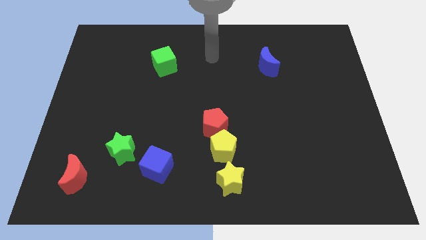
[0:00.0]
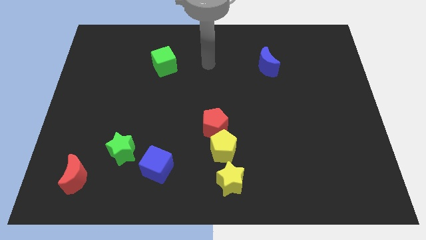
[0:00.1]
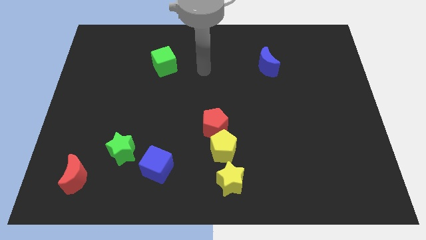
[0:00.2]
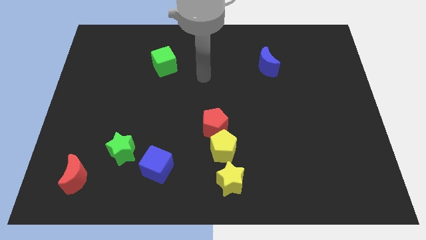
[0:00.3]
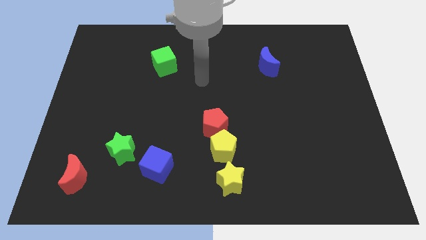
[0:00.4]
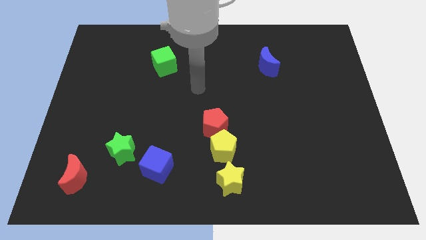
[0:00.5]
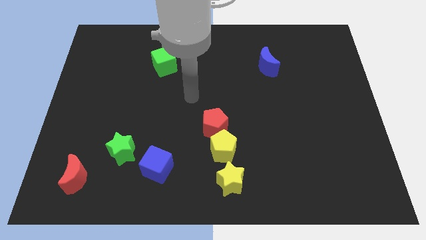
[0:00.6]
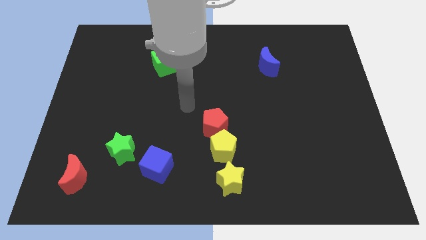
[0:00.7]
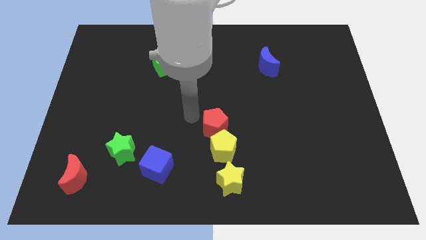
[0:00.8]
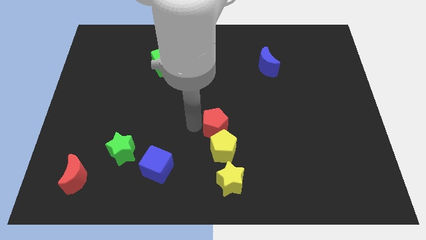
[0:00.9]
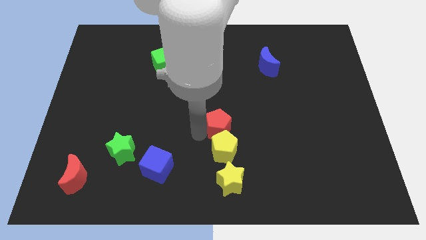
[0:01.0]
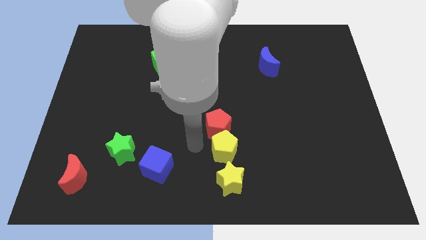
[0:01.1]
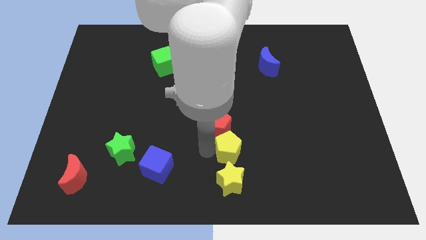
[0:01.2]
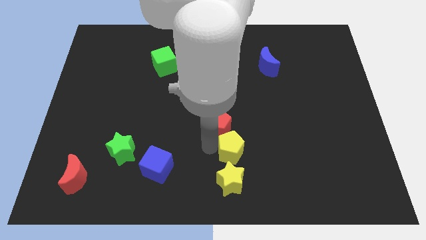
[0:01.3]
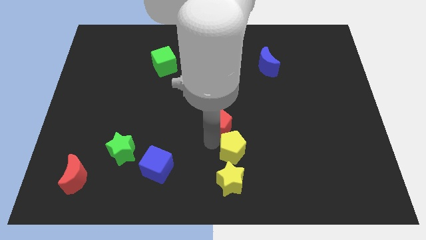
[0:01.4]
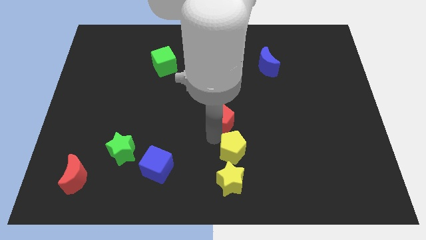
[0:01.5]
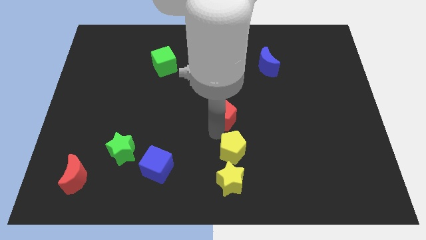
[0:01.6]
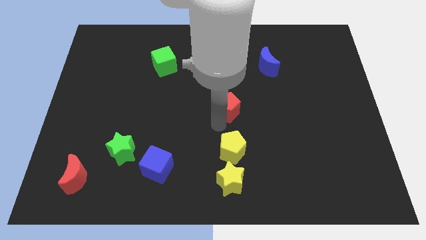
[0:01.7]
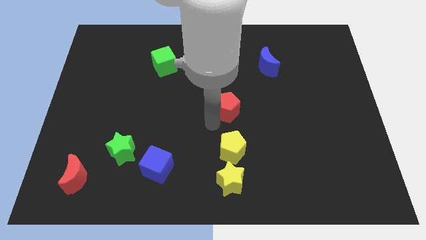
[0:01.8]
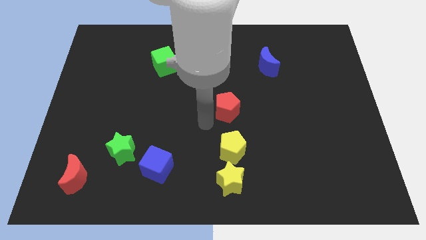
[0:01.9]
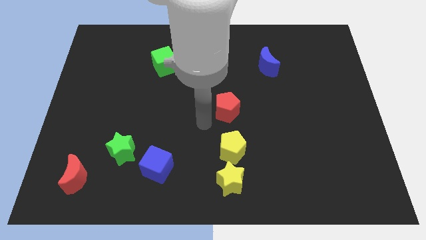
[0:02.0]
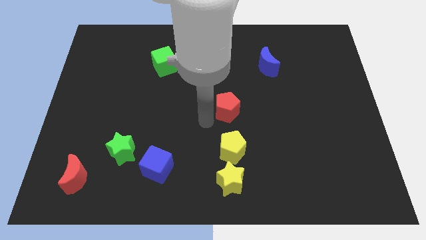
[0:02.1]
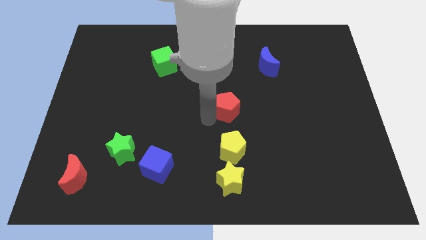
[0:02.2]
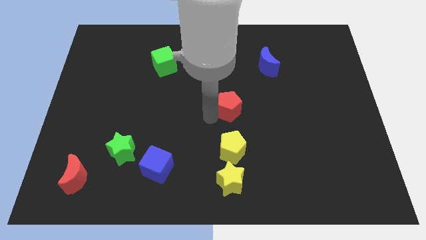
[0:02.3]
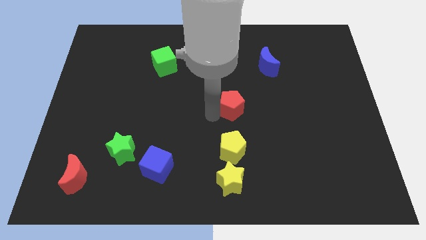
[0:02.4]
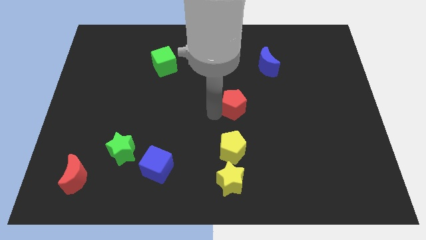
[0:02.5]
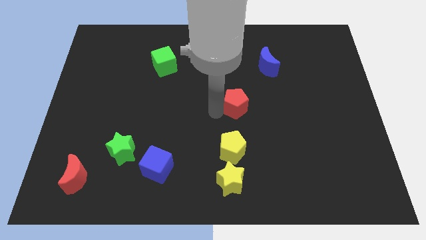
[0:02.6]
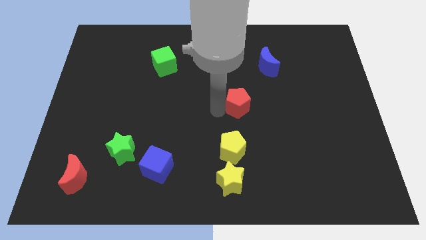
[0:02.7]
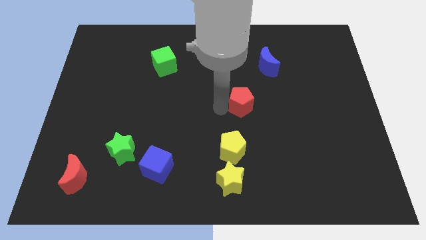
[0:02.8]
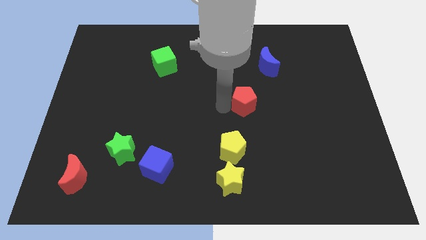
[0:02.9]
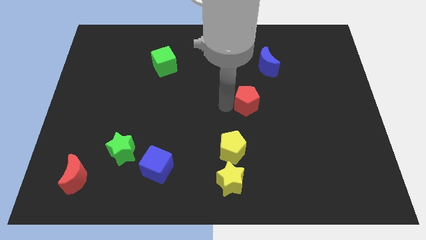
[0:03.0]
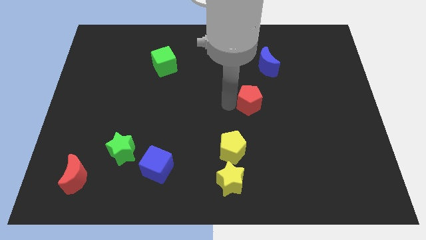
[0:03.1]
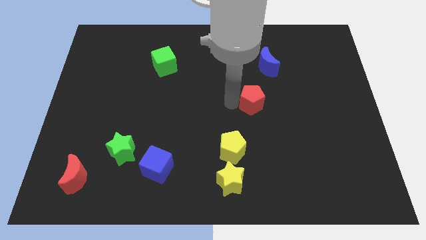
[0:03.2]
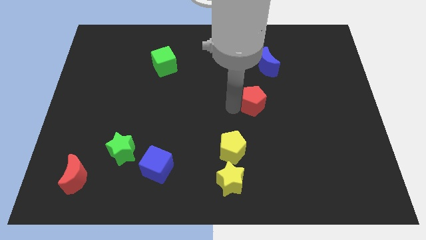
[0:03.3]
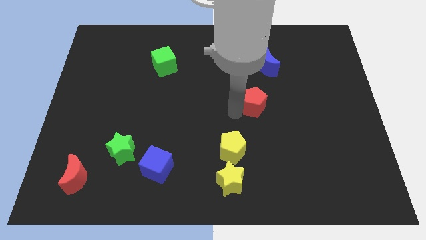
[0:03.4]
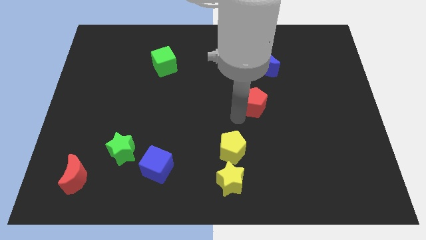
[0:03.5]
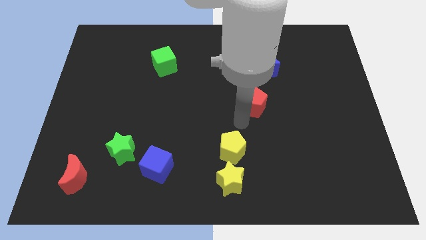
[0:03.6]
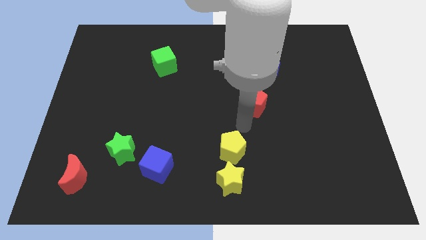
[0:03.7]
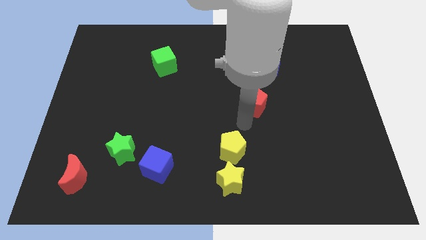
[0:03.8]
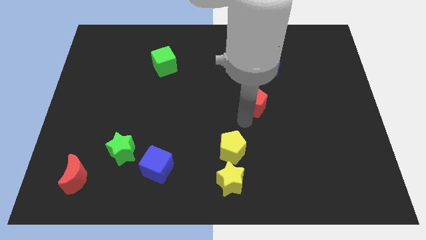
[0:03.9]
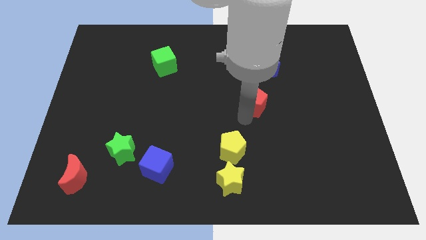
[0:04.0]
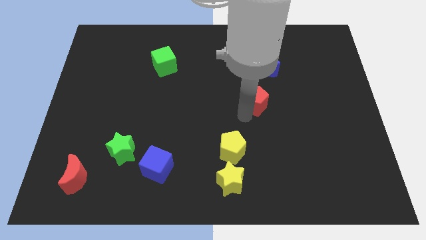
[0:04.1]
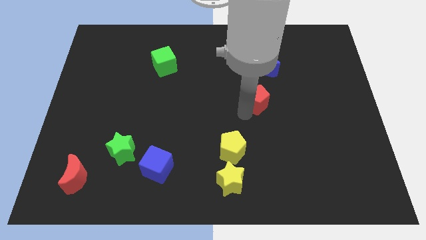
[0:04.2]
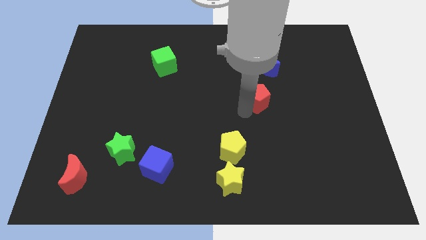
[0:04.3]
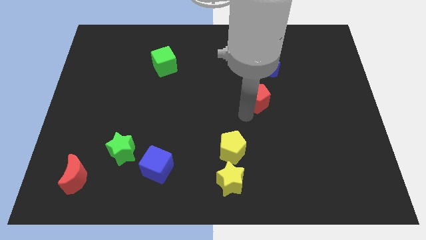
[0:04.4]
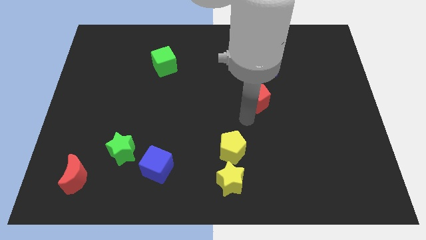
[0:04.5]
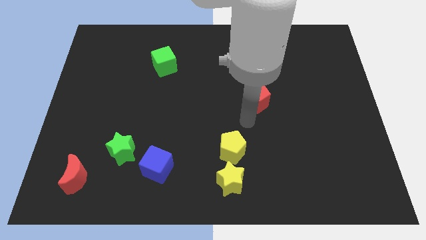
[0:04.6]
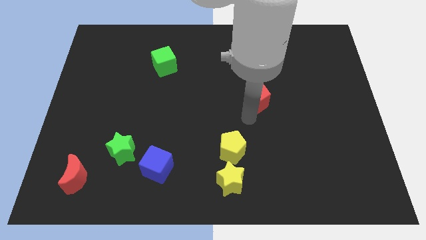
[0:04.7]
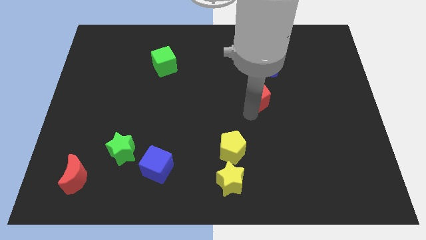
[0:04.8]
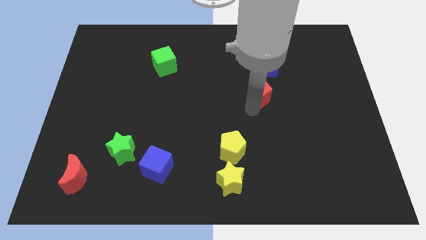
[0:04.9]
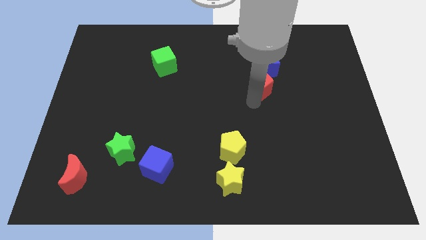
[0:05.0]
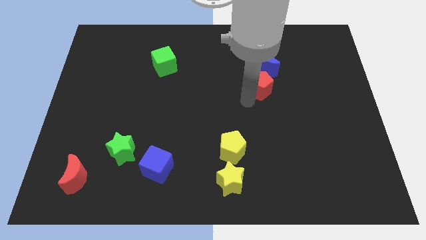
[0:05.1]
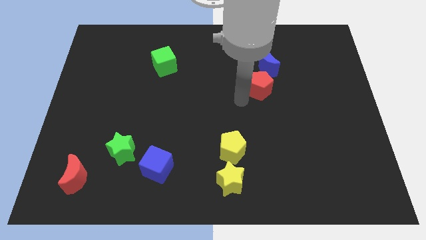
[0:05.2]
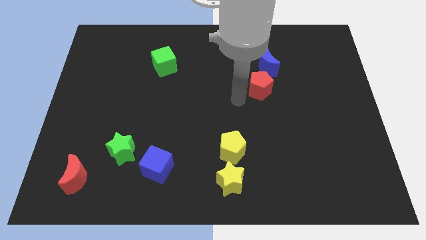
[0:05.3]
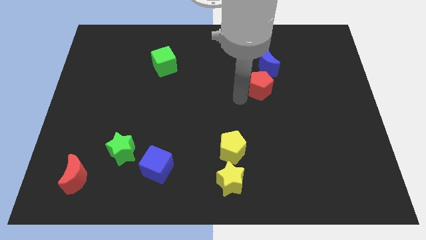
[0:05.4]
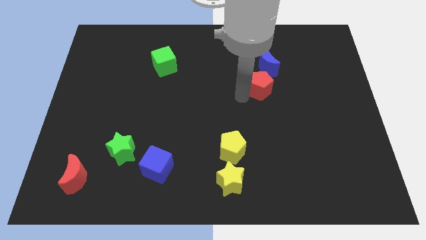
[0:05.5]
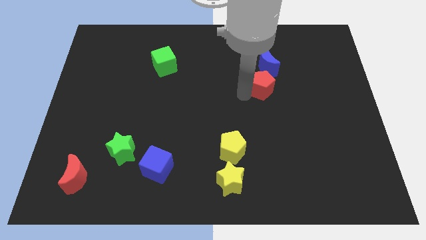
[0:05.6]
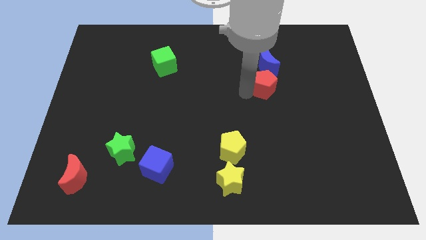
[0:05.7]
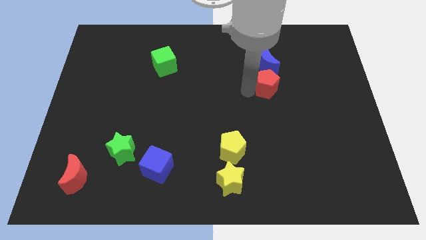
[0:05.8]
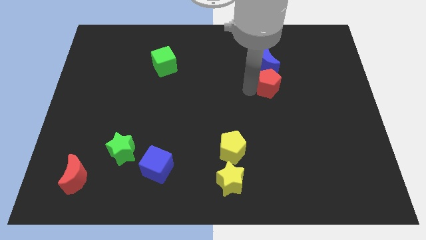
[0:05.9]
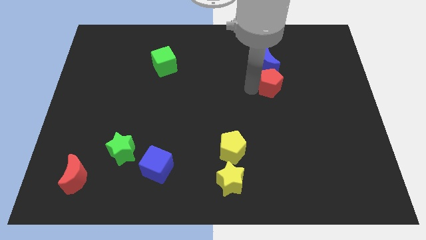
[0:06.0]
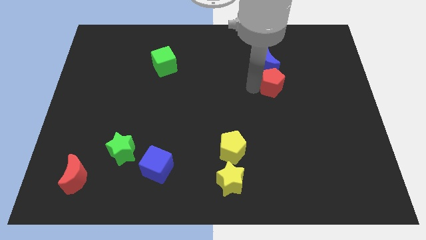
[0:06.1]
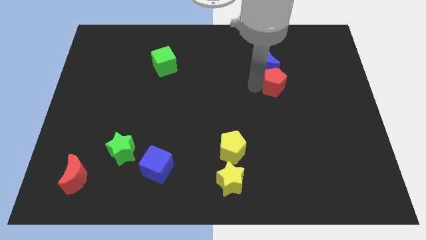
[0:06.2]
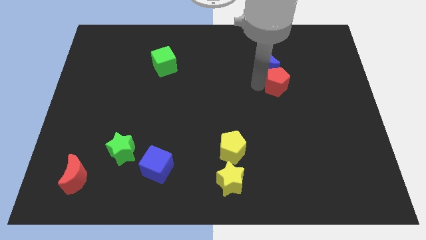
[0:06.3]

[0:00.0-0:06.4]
move the red pentagon up and to the right diagonally

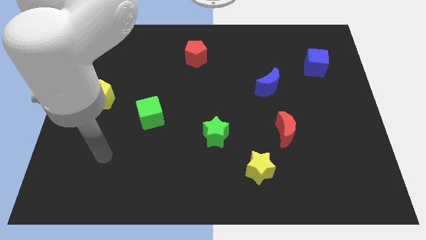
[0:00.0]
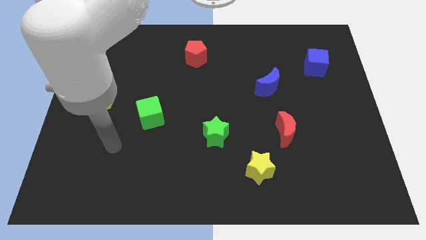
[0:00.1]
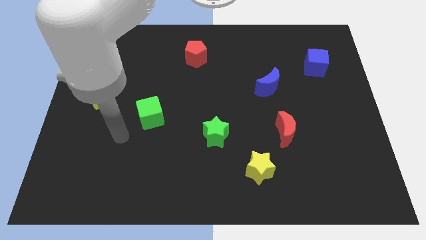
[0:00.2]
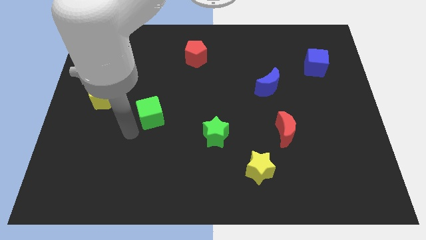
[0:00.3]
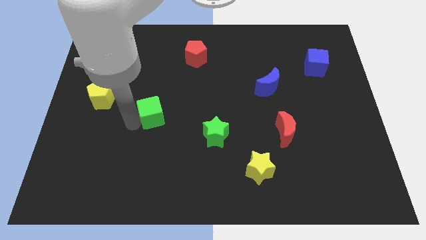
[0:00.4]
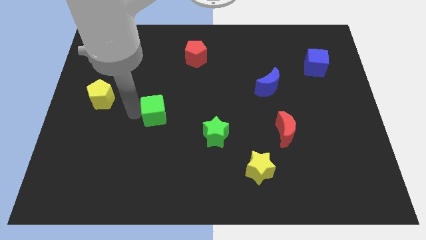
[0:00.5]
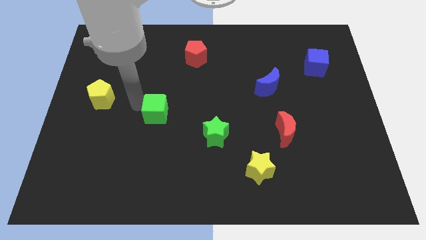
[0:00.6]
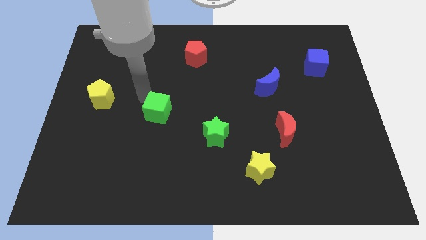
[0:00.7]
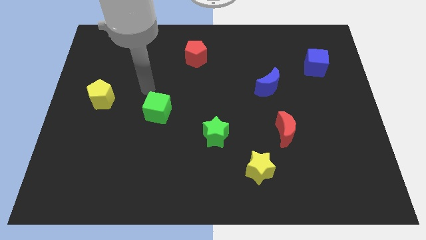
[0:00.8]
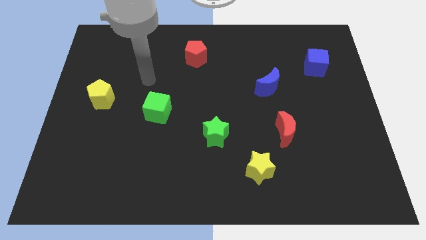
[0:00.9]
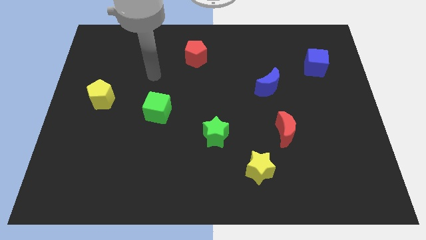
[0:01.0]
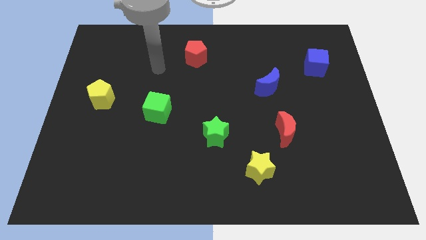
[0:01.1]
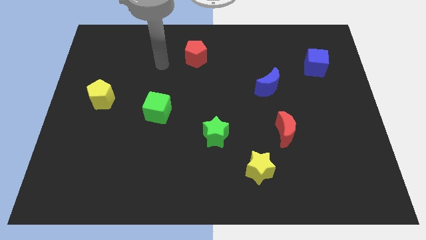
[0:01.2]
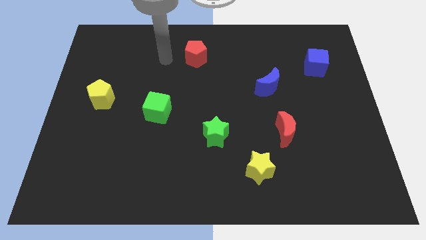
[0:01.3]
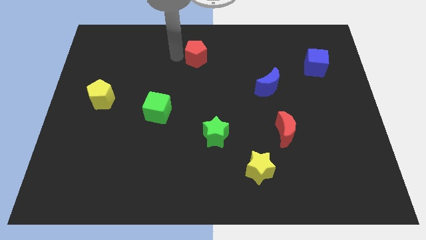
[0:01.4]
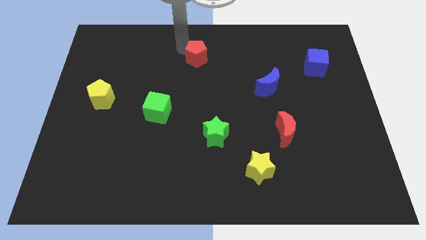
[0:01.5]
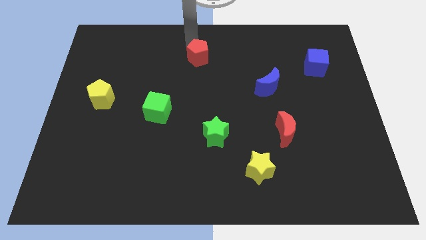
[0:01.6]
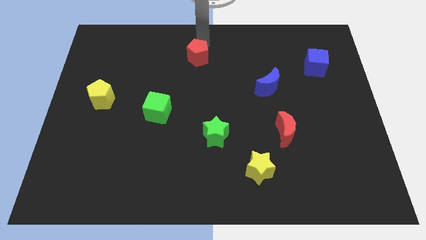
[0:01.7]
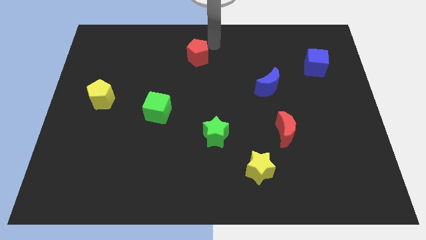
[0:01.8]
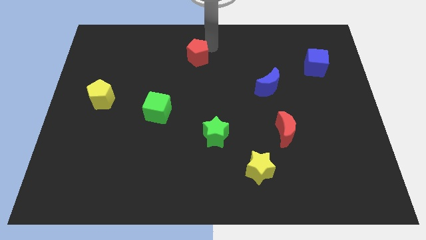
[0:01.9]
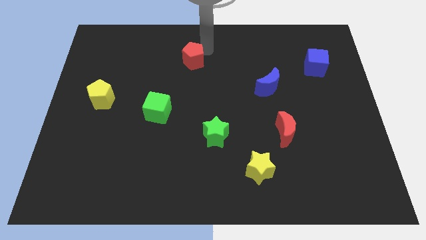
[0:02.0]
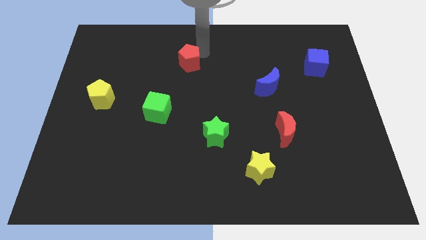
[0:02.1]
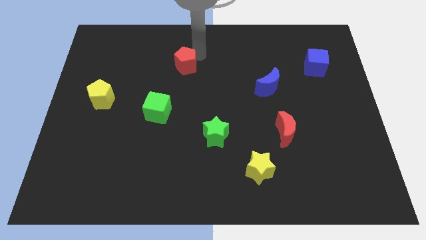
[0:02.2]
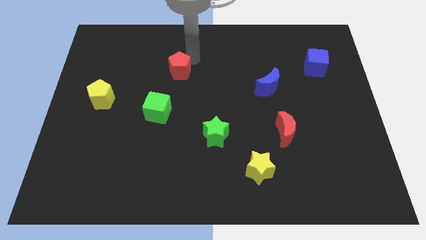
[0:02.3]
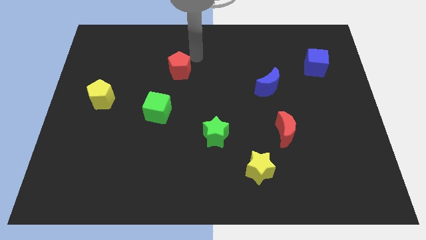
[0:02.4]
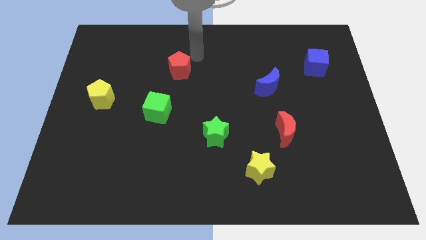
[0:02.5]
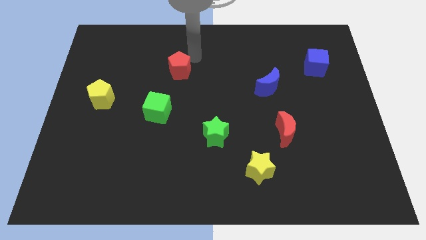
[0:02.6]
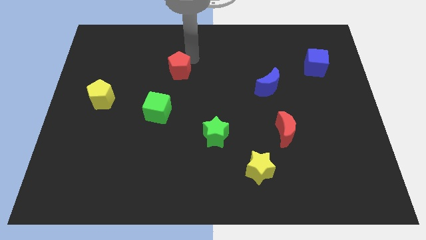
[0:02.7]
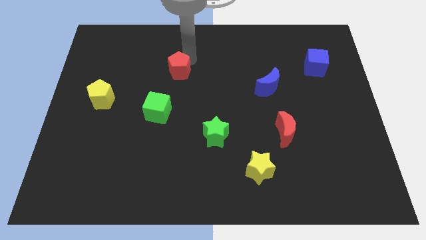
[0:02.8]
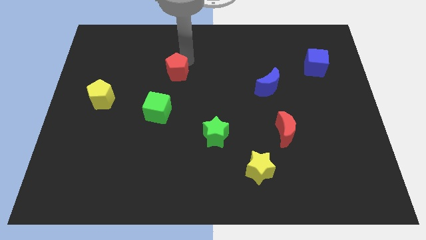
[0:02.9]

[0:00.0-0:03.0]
slide the red pentagon diagonally down and left a little bit
